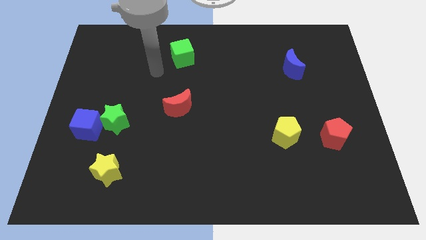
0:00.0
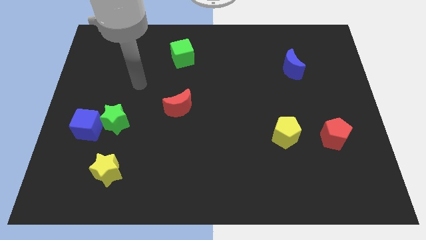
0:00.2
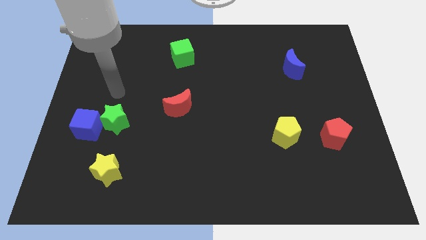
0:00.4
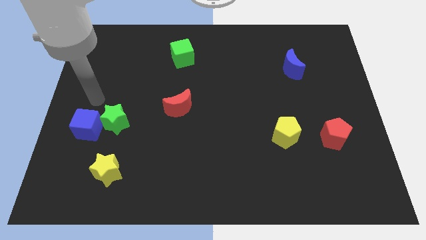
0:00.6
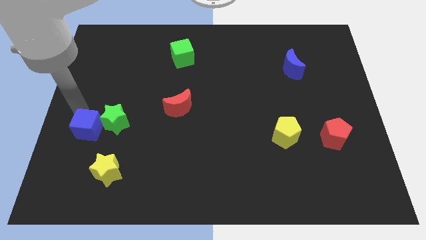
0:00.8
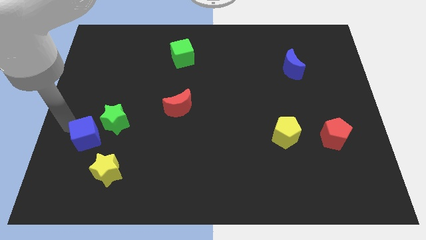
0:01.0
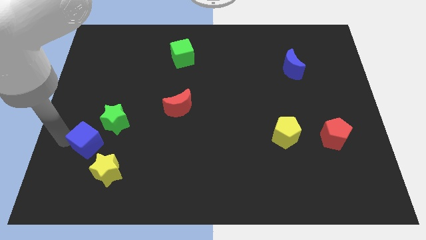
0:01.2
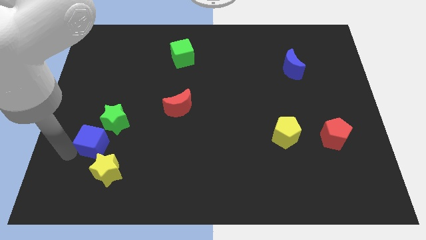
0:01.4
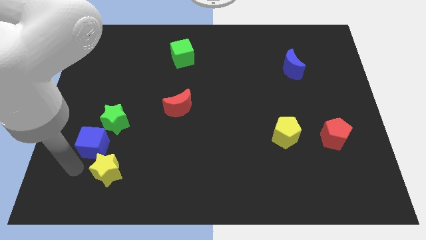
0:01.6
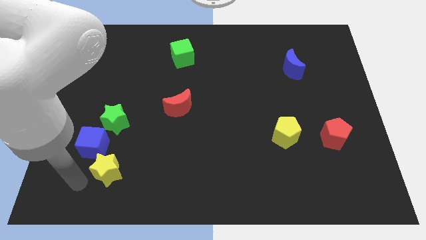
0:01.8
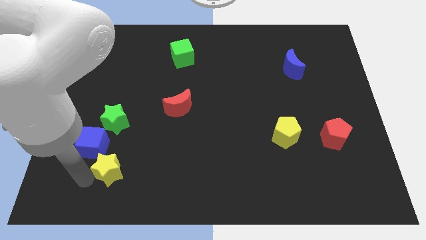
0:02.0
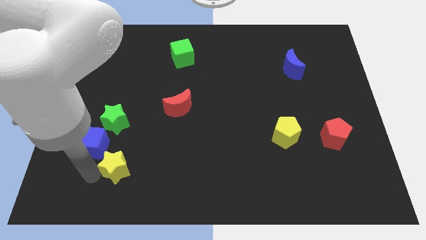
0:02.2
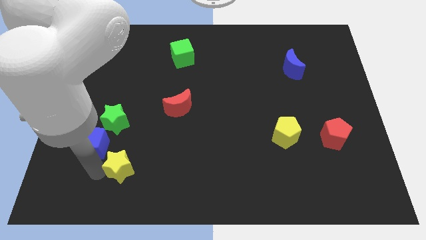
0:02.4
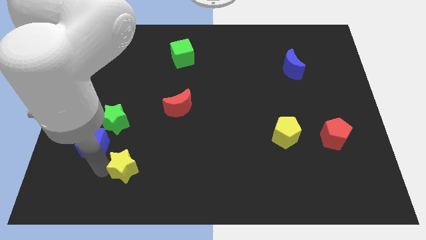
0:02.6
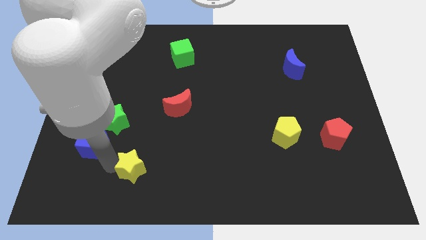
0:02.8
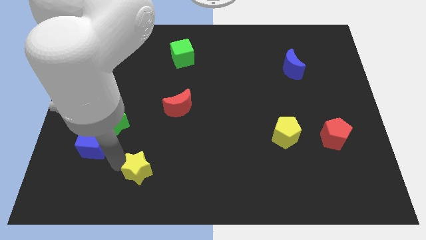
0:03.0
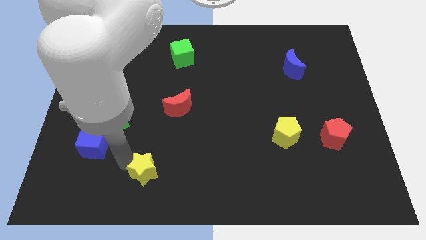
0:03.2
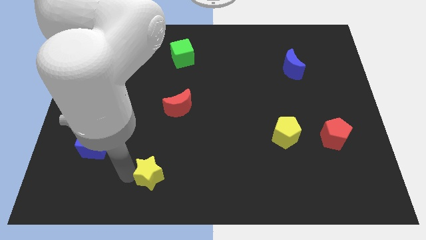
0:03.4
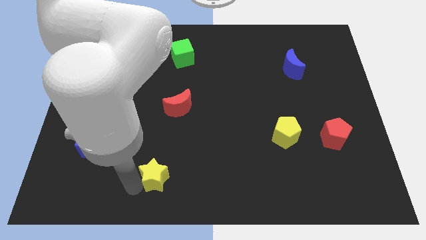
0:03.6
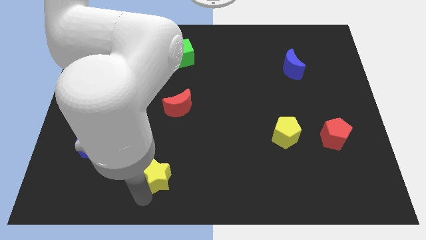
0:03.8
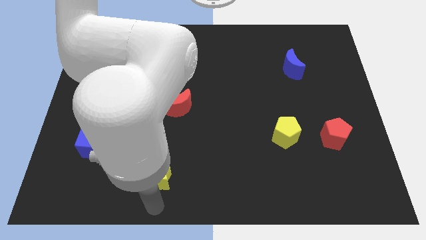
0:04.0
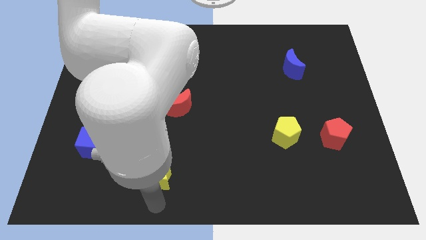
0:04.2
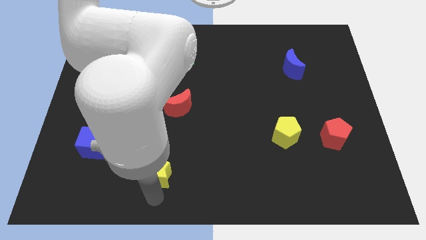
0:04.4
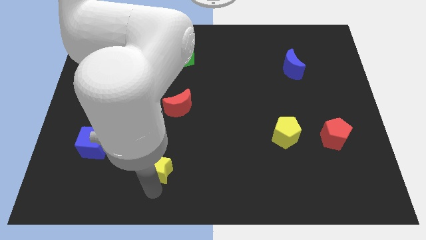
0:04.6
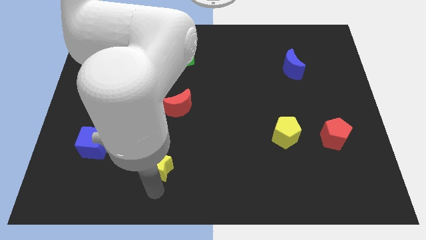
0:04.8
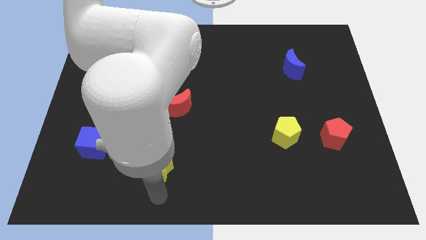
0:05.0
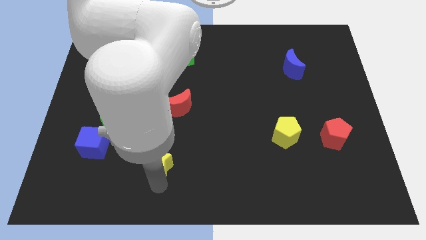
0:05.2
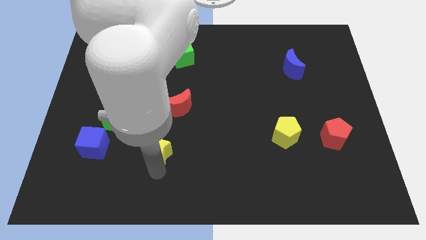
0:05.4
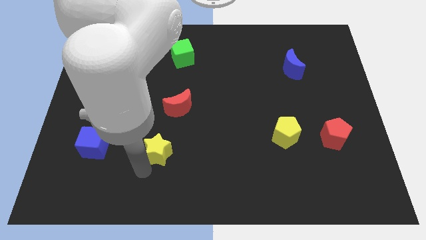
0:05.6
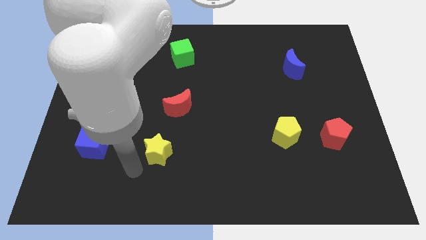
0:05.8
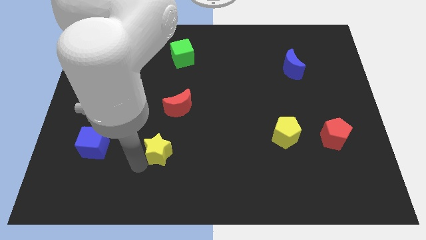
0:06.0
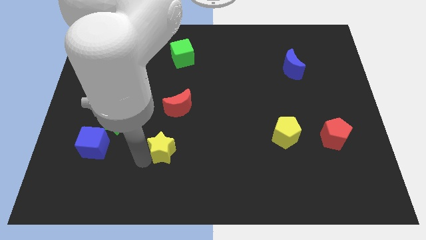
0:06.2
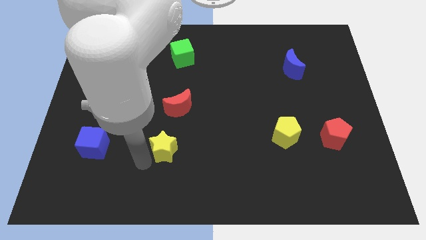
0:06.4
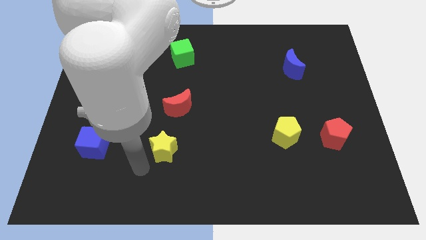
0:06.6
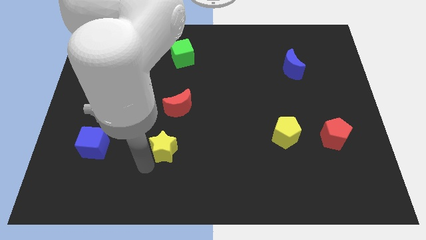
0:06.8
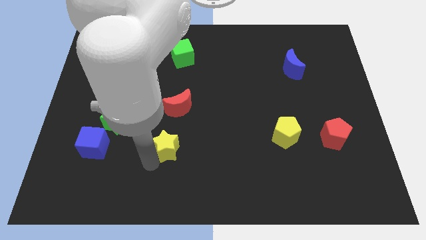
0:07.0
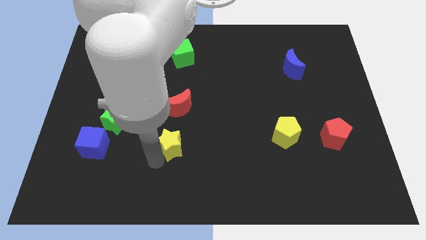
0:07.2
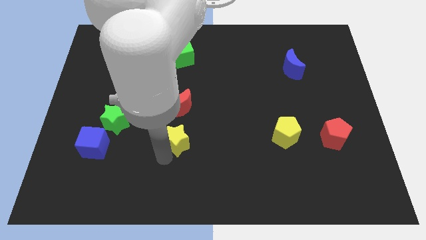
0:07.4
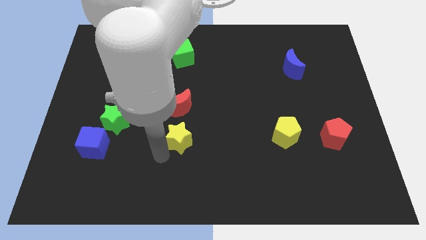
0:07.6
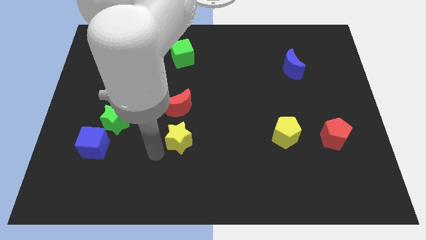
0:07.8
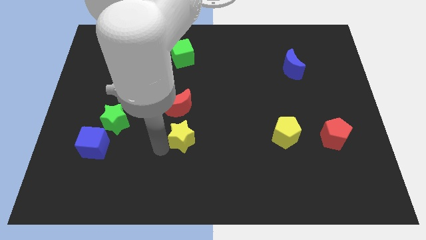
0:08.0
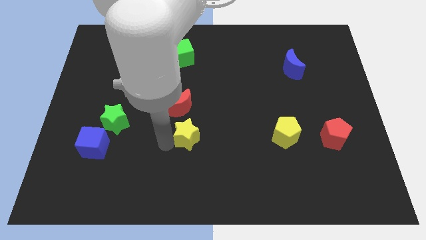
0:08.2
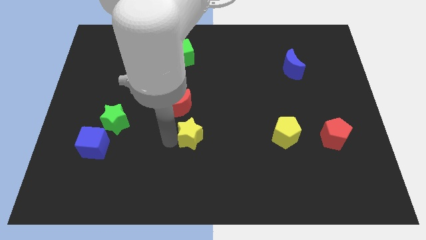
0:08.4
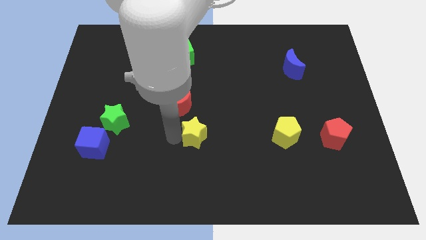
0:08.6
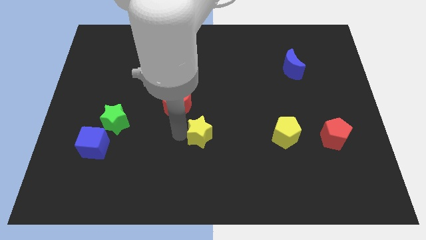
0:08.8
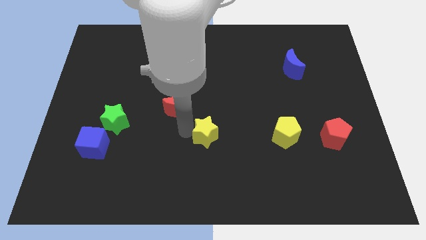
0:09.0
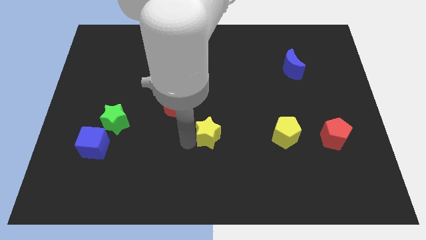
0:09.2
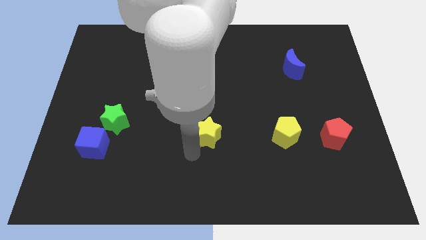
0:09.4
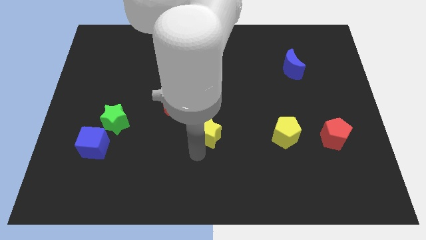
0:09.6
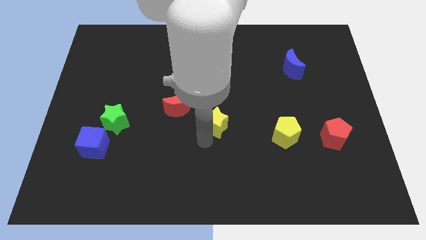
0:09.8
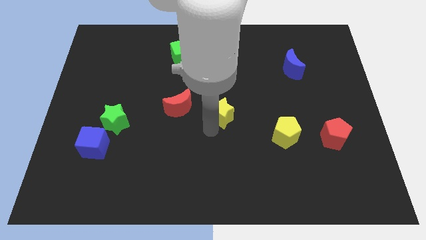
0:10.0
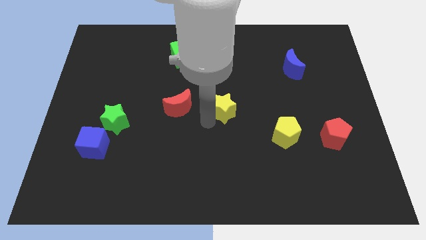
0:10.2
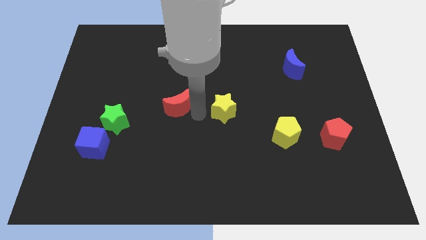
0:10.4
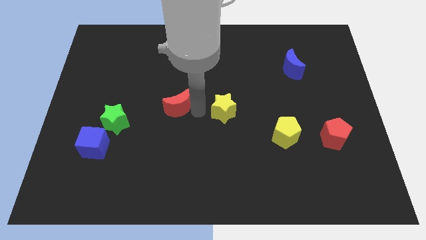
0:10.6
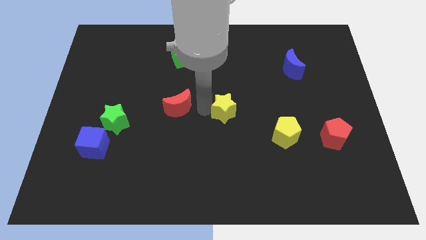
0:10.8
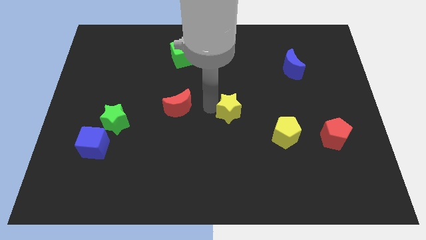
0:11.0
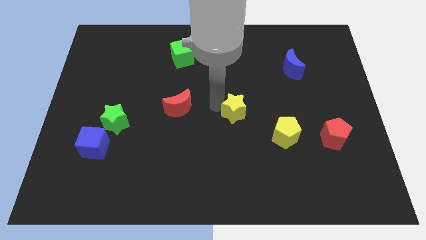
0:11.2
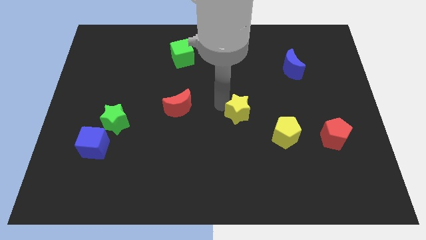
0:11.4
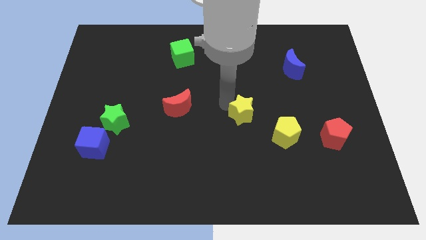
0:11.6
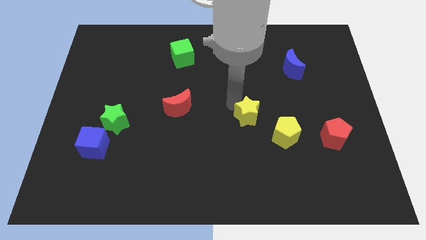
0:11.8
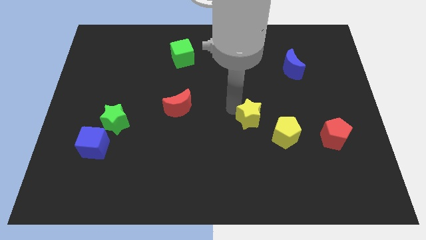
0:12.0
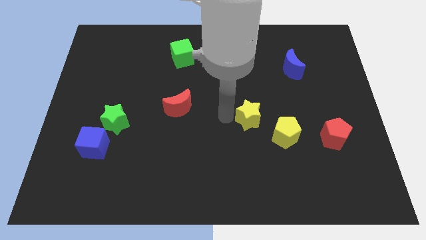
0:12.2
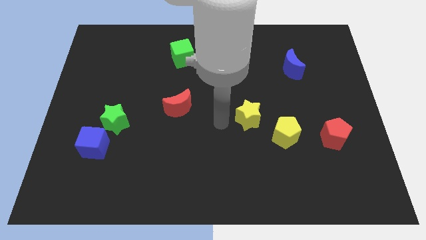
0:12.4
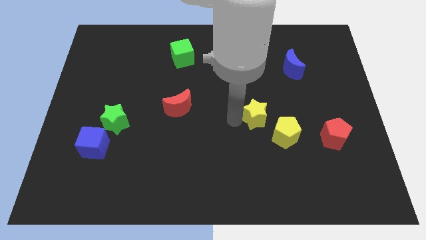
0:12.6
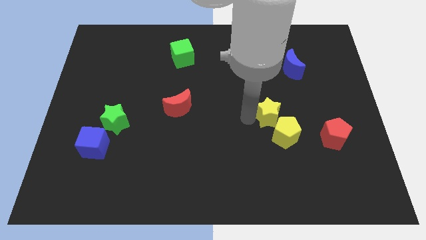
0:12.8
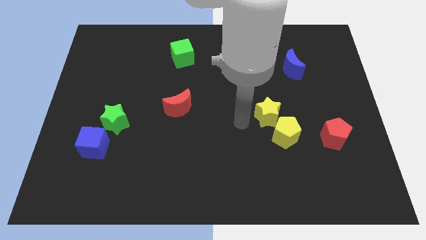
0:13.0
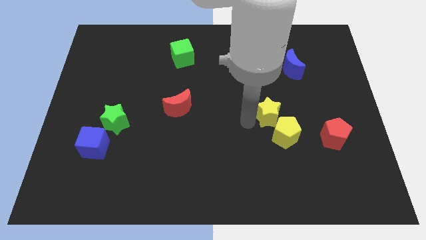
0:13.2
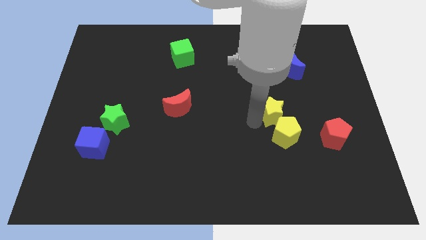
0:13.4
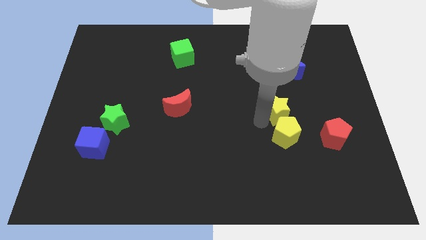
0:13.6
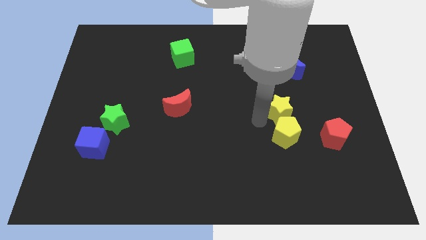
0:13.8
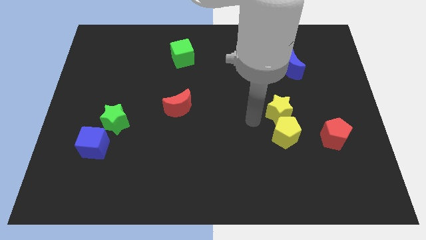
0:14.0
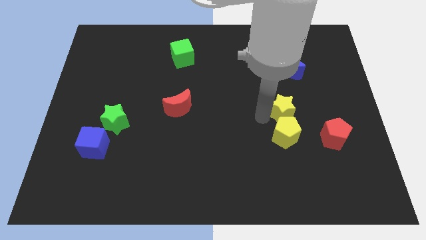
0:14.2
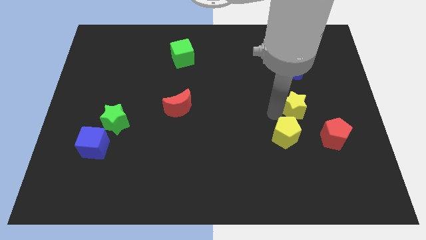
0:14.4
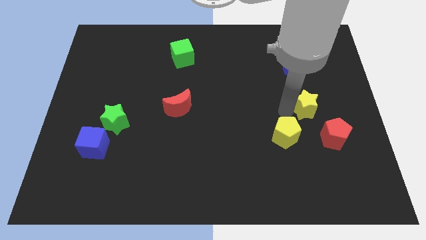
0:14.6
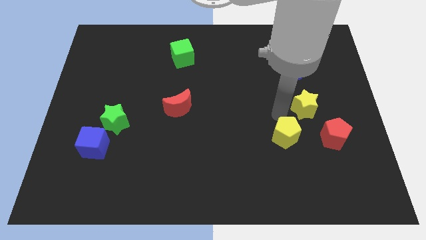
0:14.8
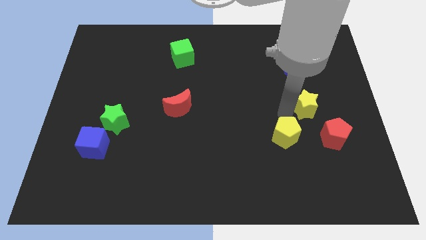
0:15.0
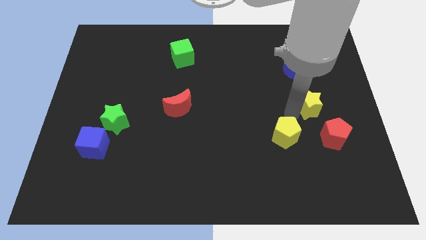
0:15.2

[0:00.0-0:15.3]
put the yellow star to the top of the red pentagon
